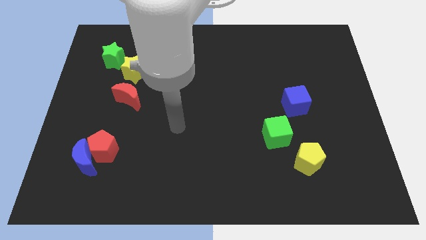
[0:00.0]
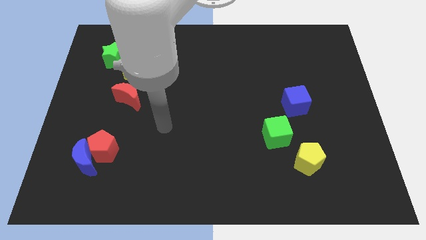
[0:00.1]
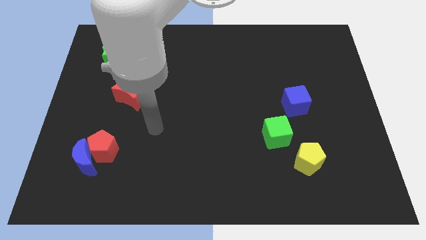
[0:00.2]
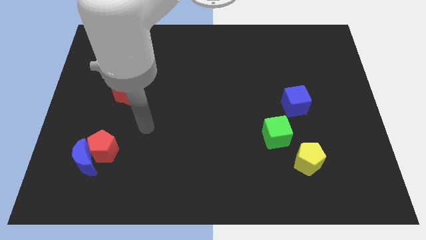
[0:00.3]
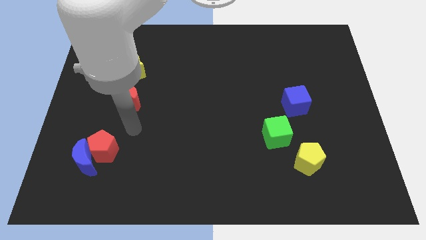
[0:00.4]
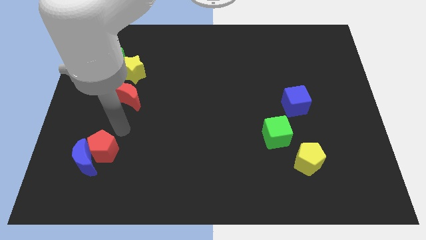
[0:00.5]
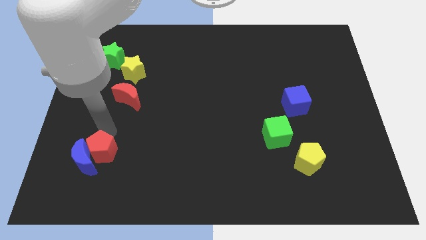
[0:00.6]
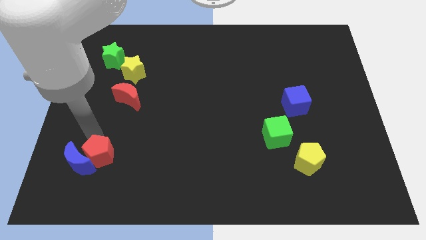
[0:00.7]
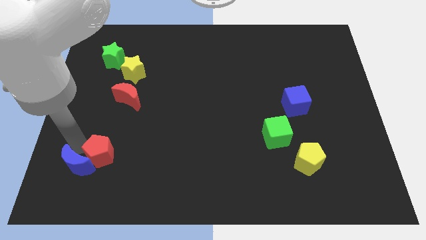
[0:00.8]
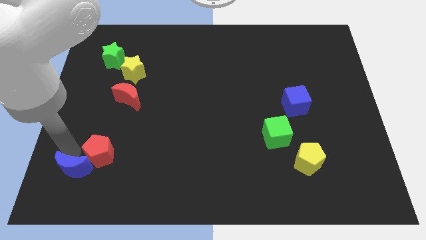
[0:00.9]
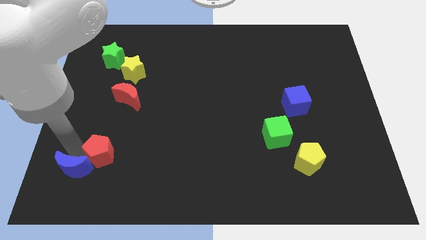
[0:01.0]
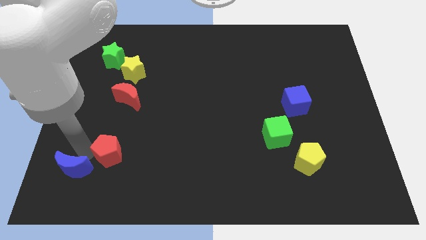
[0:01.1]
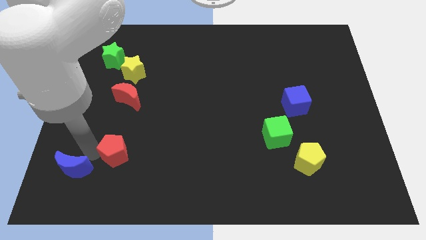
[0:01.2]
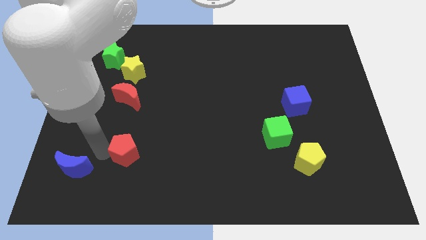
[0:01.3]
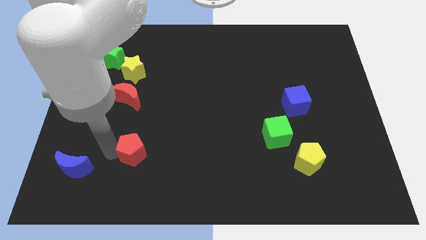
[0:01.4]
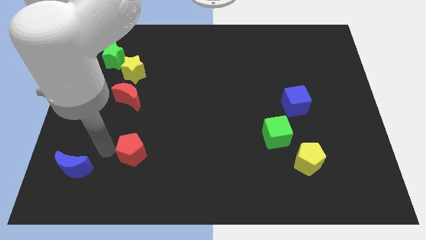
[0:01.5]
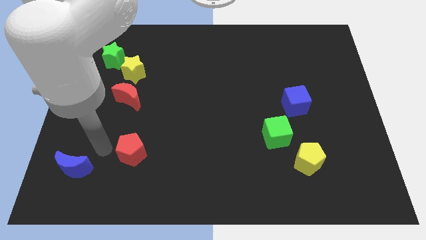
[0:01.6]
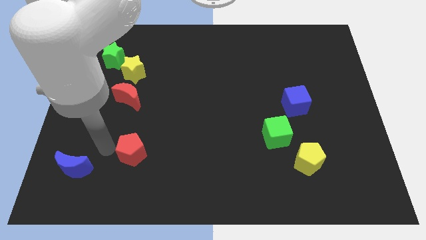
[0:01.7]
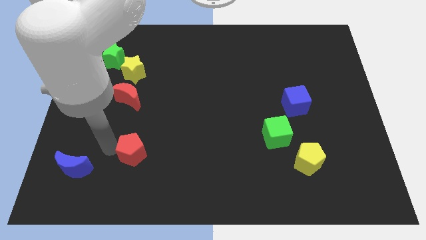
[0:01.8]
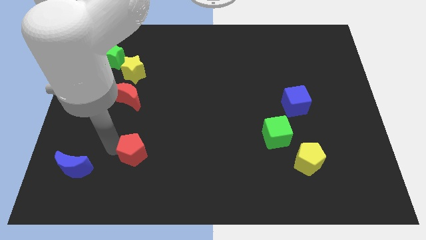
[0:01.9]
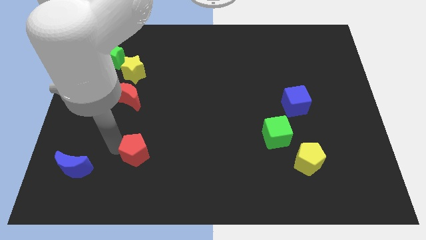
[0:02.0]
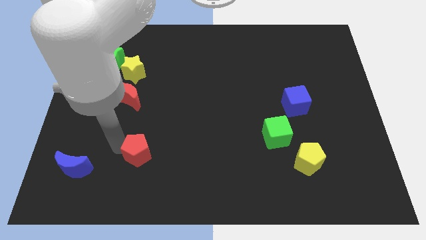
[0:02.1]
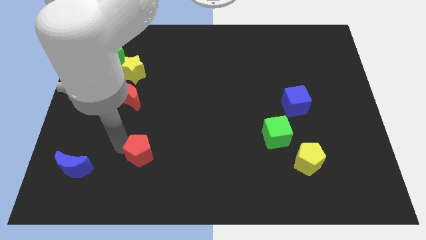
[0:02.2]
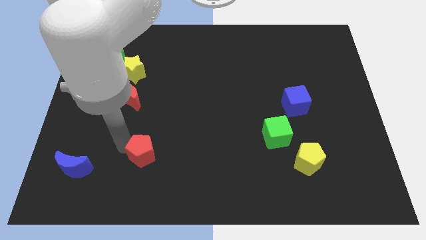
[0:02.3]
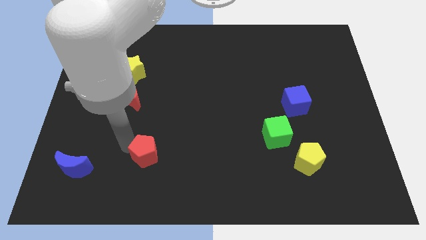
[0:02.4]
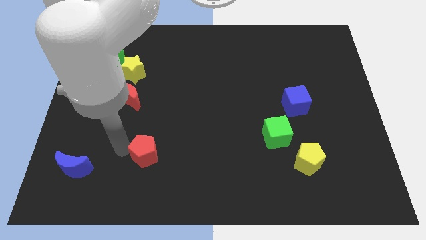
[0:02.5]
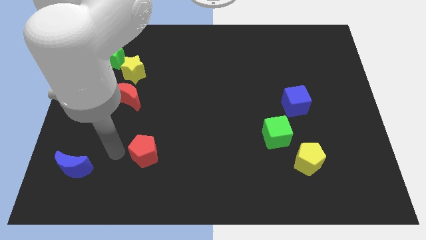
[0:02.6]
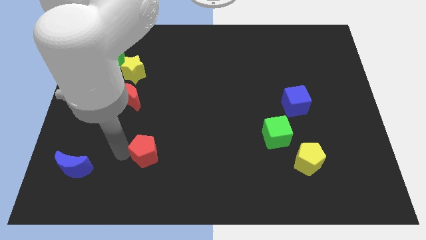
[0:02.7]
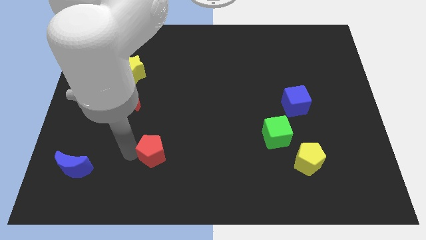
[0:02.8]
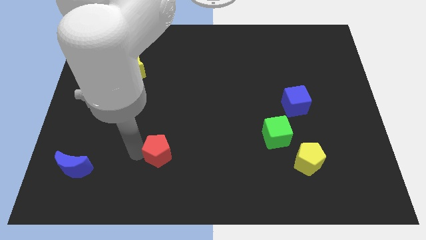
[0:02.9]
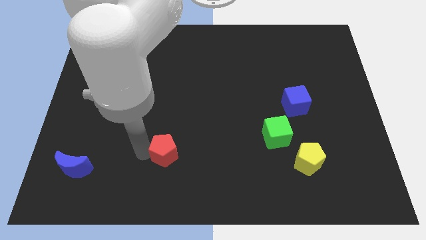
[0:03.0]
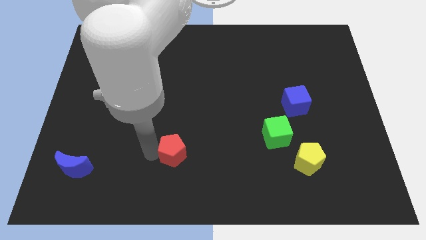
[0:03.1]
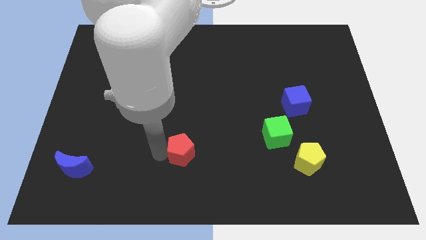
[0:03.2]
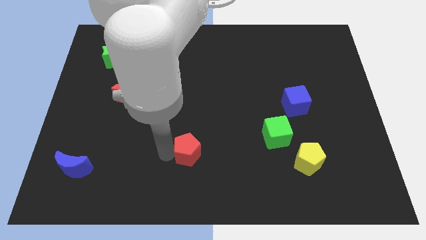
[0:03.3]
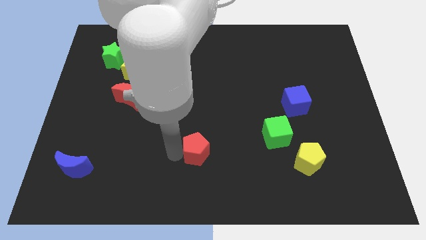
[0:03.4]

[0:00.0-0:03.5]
slide the red pentagon right

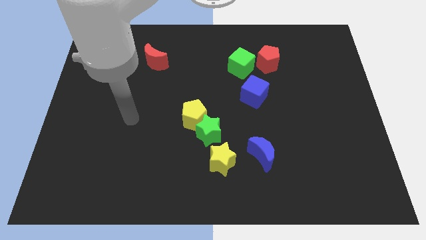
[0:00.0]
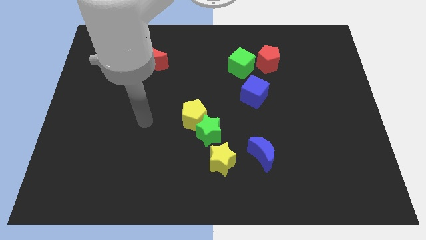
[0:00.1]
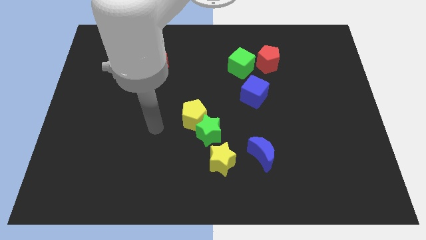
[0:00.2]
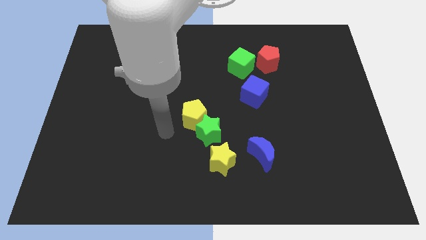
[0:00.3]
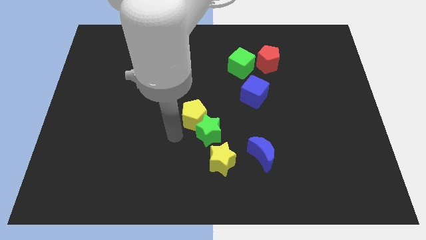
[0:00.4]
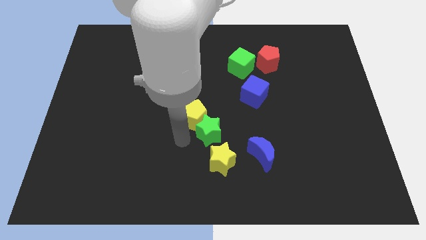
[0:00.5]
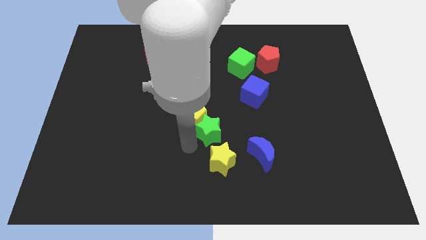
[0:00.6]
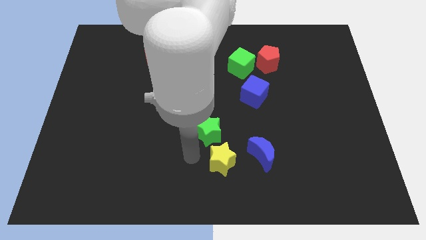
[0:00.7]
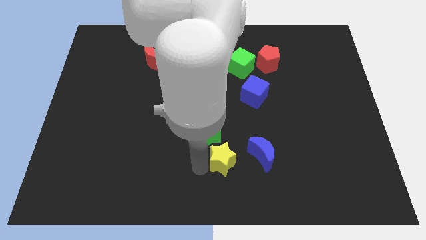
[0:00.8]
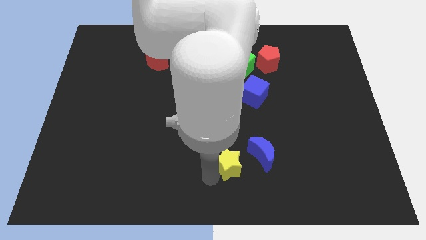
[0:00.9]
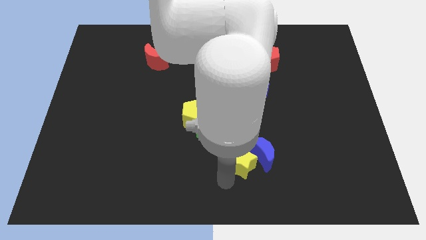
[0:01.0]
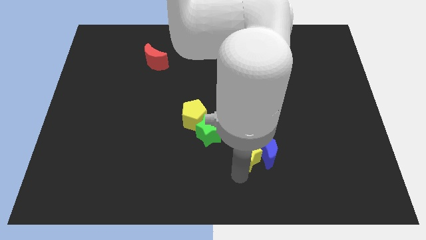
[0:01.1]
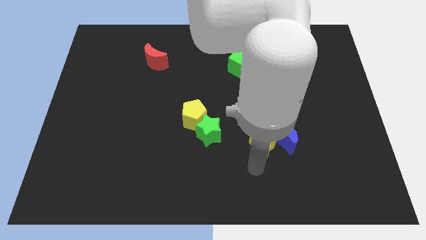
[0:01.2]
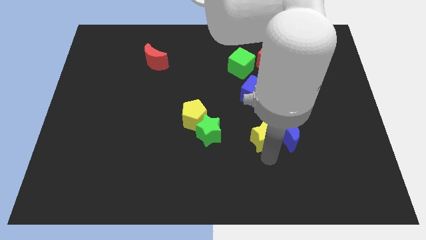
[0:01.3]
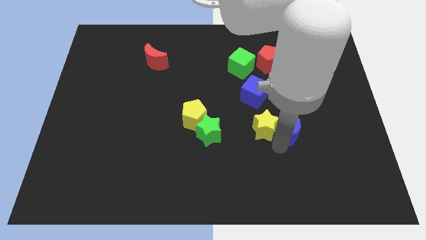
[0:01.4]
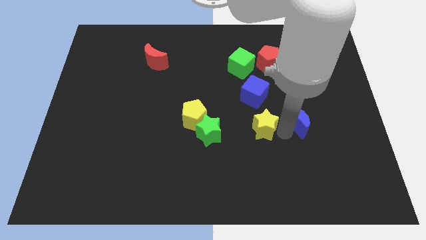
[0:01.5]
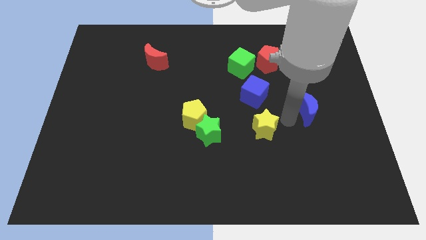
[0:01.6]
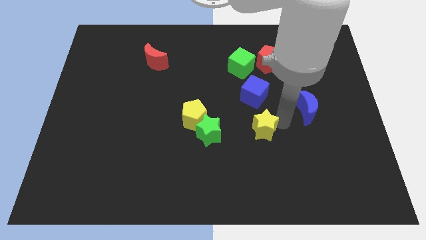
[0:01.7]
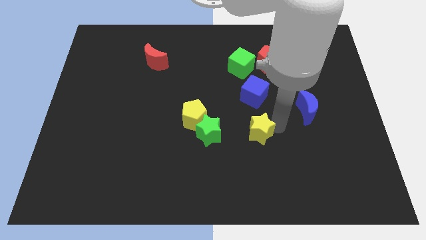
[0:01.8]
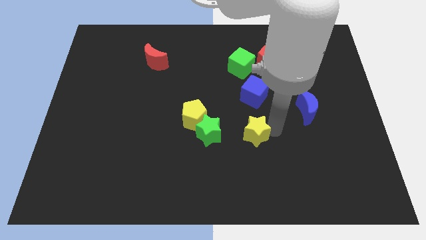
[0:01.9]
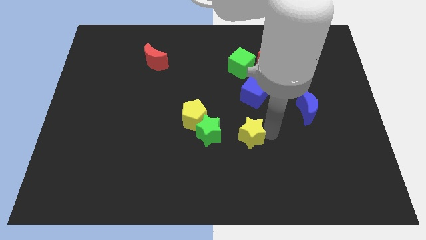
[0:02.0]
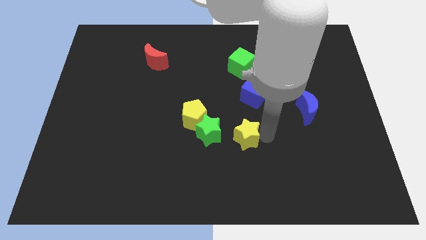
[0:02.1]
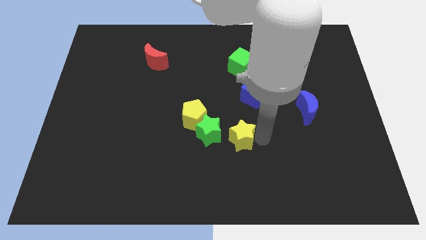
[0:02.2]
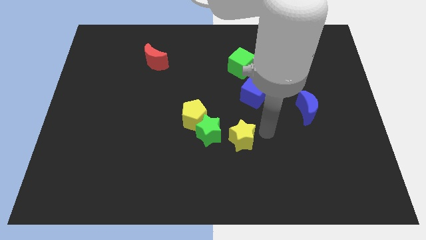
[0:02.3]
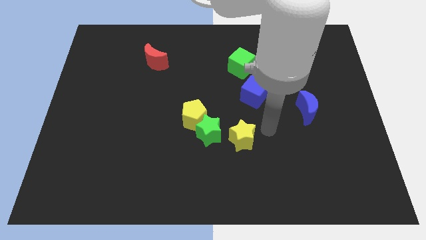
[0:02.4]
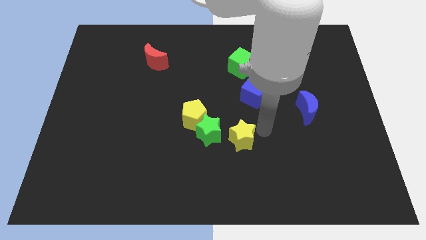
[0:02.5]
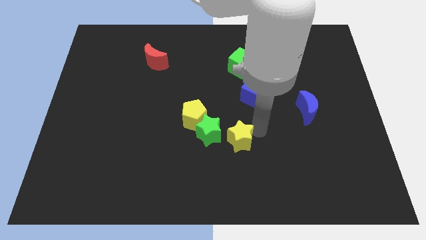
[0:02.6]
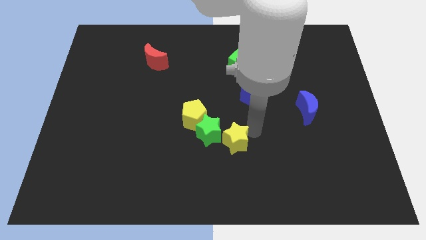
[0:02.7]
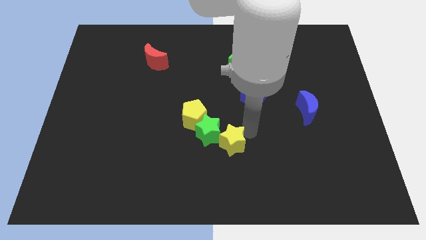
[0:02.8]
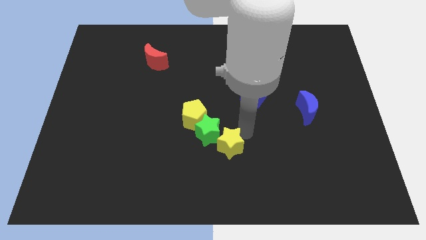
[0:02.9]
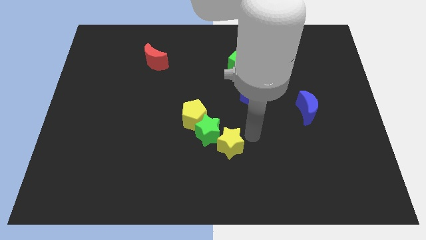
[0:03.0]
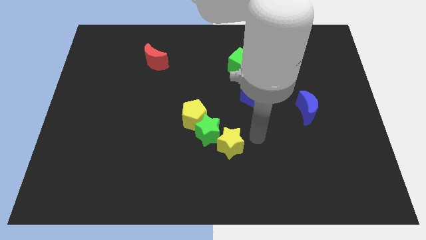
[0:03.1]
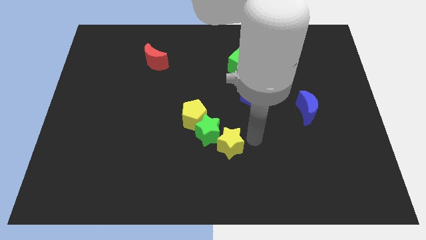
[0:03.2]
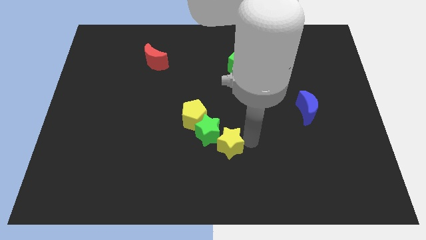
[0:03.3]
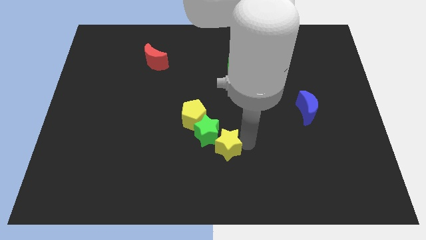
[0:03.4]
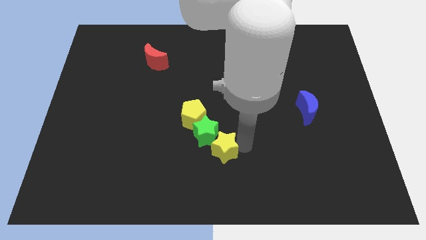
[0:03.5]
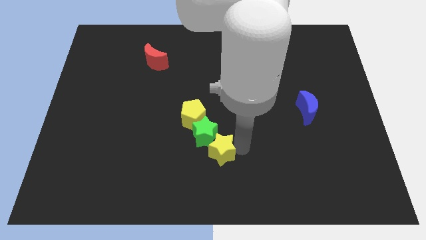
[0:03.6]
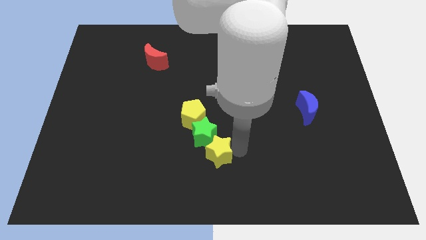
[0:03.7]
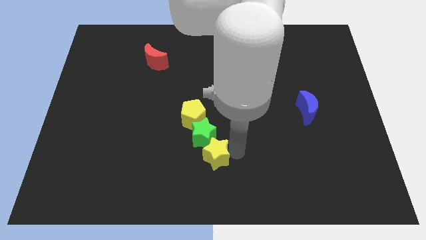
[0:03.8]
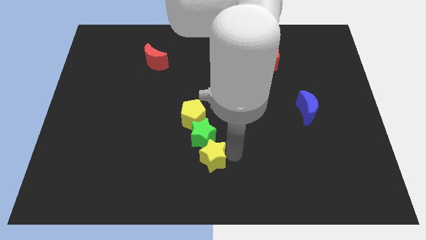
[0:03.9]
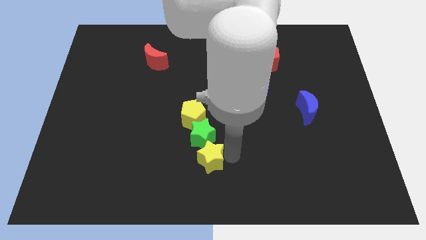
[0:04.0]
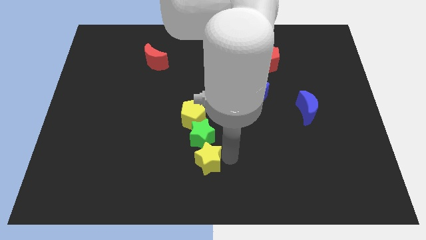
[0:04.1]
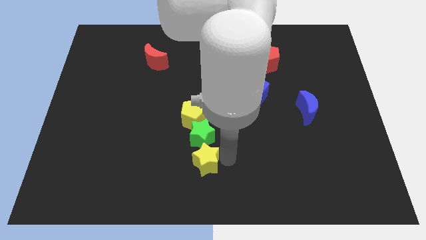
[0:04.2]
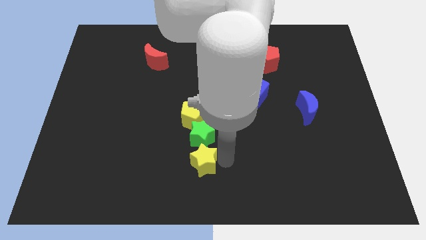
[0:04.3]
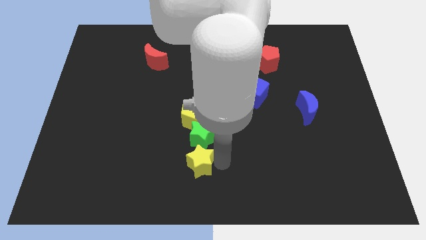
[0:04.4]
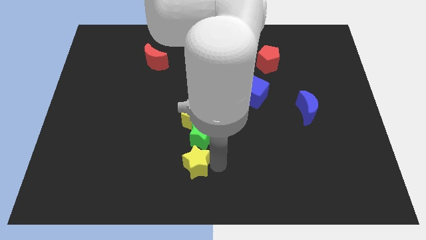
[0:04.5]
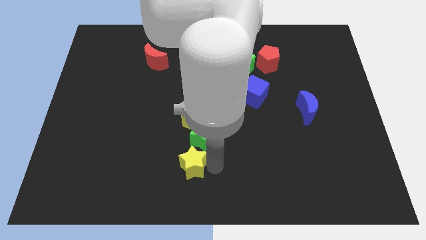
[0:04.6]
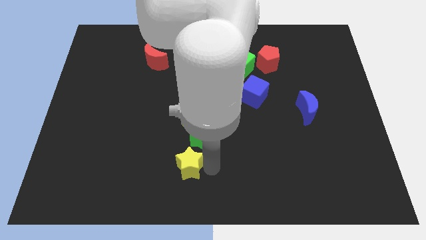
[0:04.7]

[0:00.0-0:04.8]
slightly slide the yellow star left
